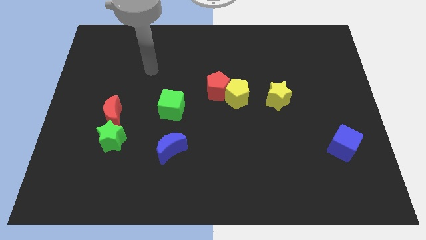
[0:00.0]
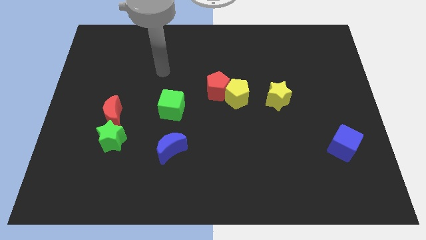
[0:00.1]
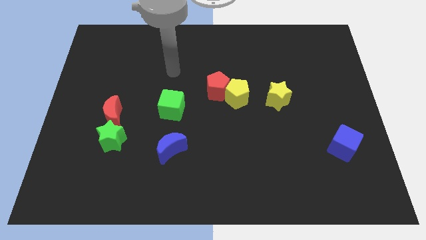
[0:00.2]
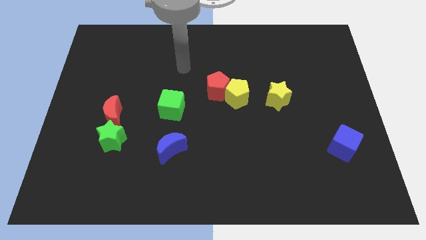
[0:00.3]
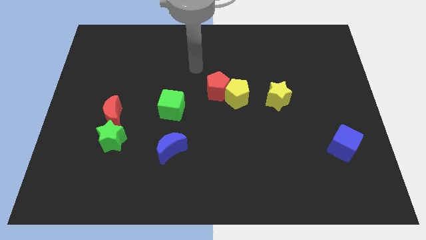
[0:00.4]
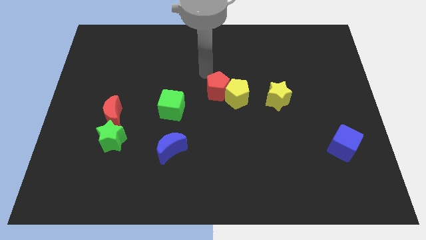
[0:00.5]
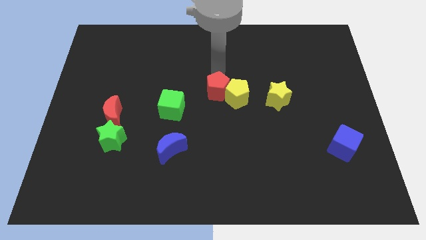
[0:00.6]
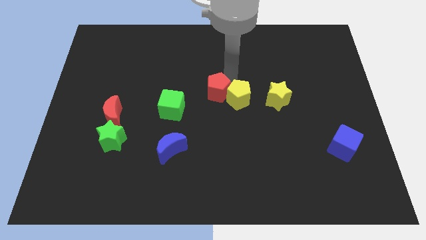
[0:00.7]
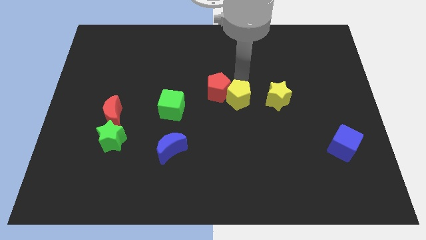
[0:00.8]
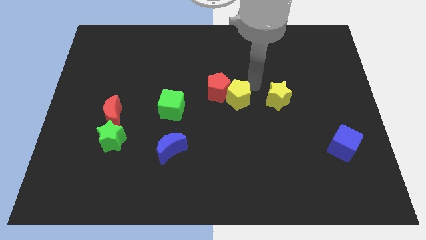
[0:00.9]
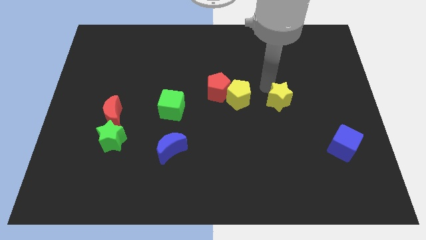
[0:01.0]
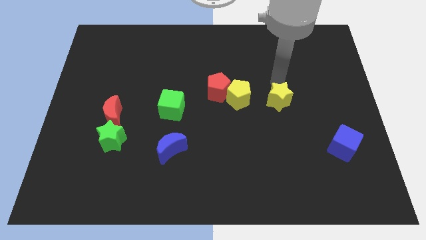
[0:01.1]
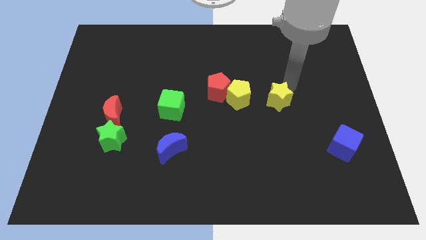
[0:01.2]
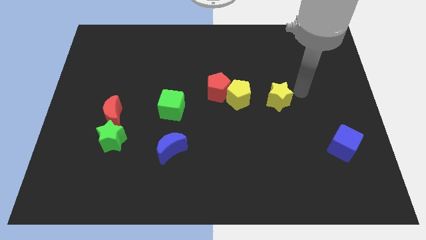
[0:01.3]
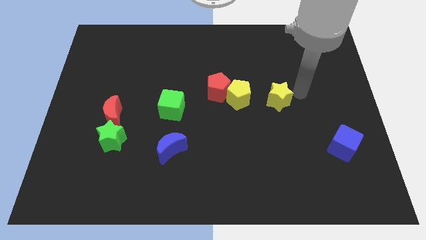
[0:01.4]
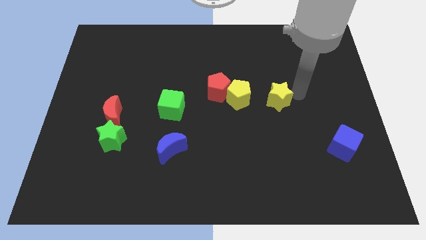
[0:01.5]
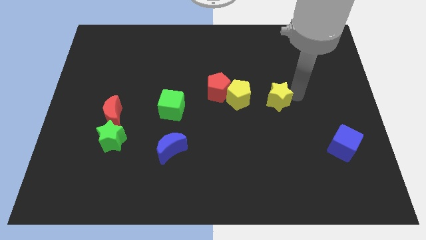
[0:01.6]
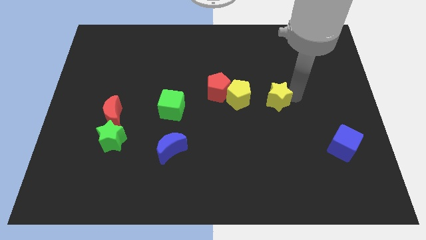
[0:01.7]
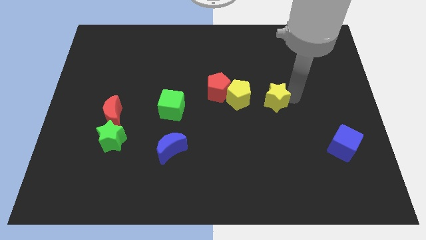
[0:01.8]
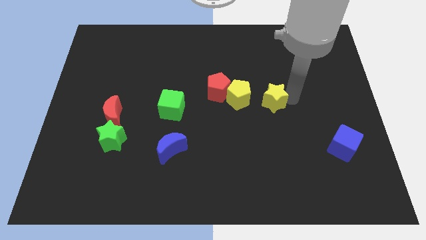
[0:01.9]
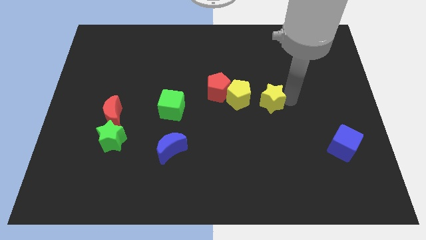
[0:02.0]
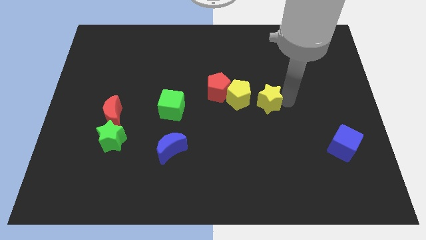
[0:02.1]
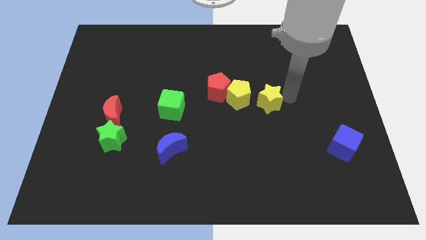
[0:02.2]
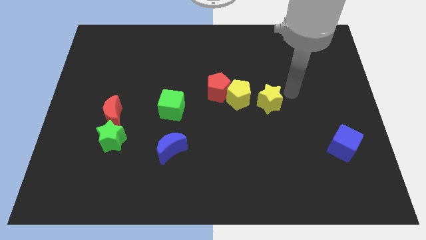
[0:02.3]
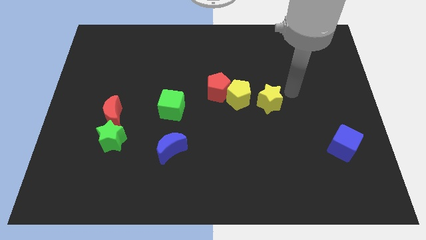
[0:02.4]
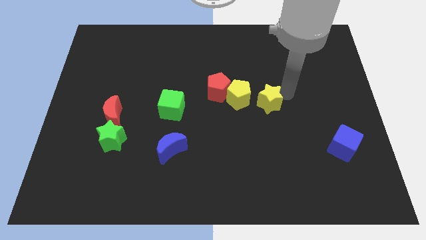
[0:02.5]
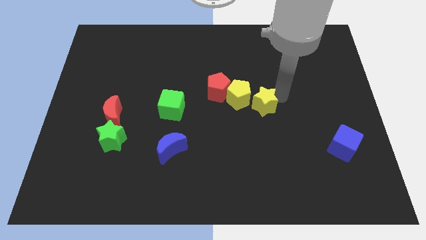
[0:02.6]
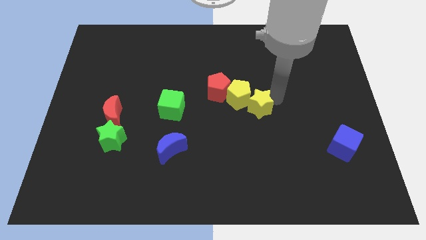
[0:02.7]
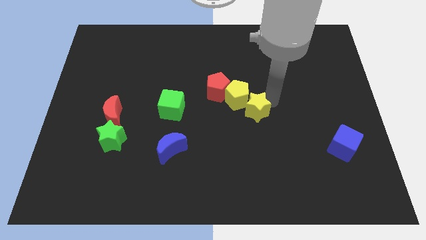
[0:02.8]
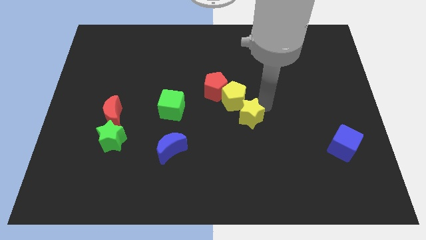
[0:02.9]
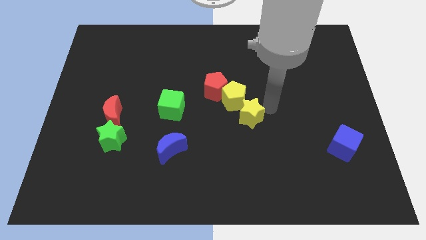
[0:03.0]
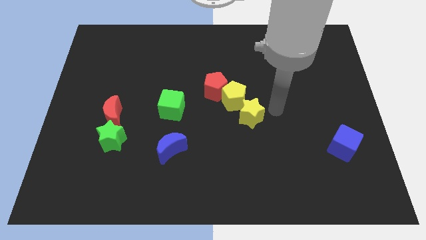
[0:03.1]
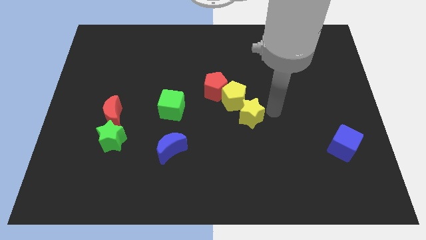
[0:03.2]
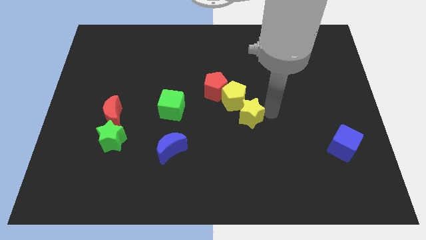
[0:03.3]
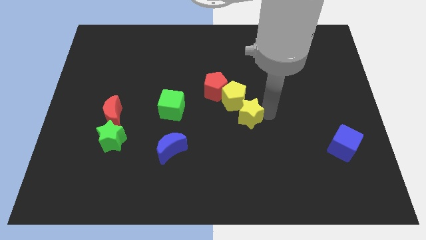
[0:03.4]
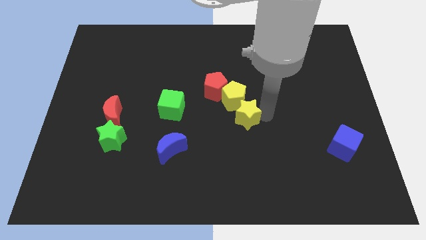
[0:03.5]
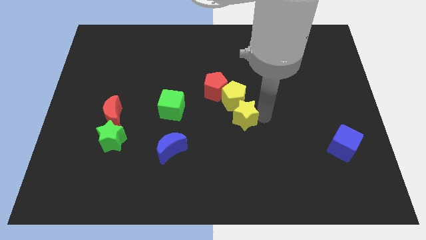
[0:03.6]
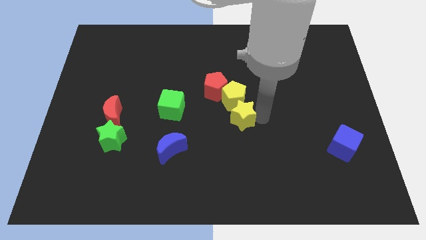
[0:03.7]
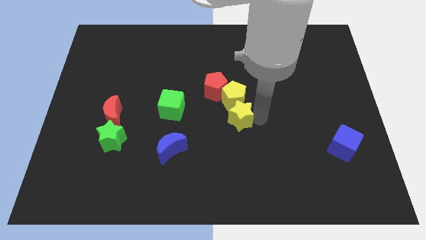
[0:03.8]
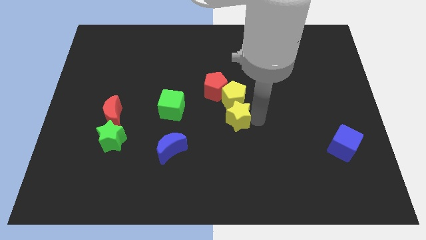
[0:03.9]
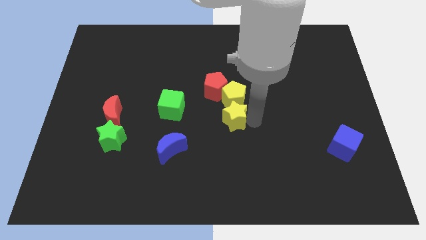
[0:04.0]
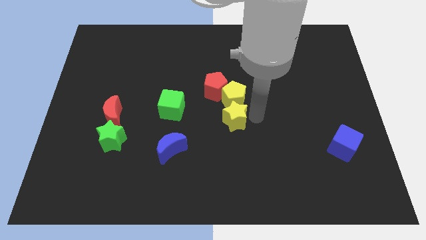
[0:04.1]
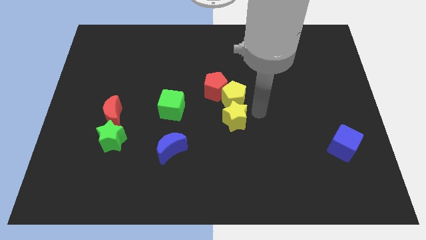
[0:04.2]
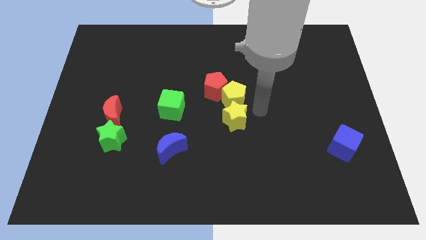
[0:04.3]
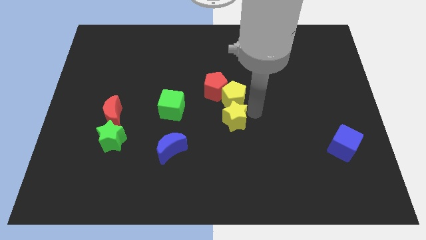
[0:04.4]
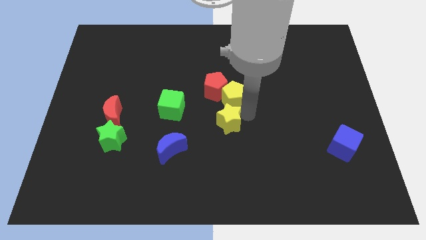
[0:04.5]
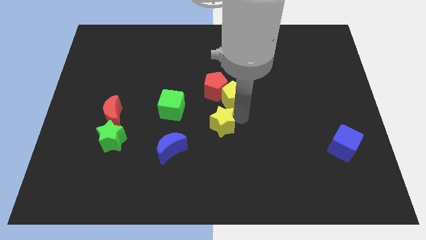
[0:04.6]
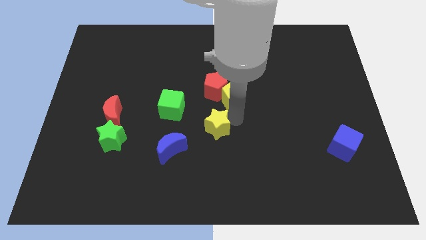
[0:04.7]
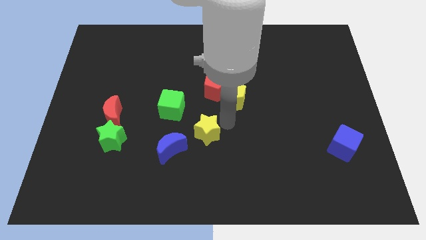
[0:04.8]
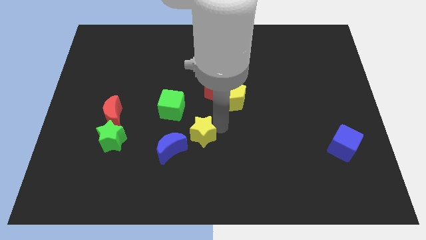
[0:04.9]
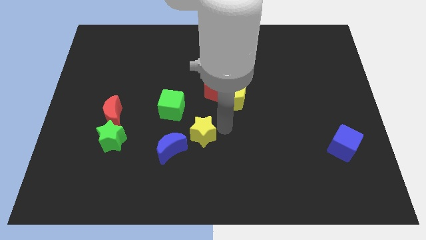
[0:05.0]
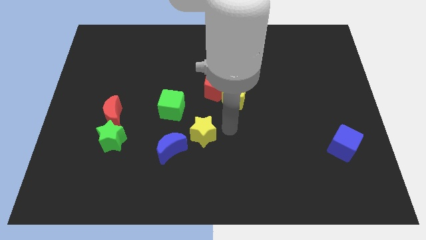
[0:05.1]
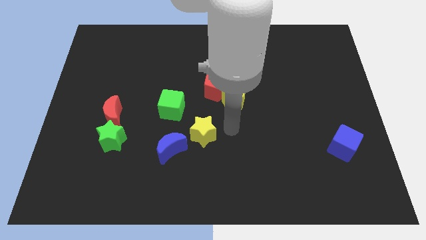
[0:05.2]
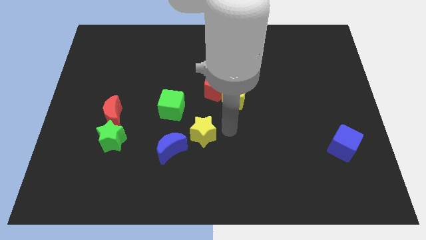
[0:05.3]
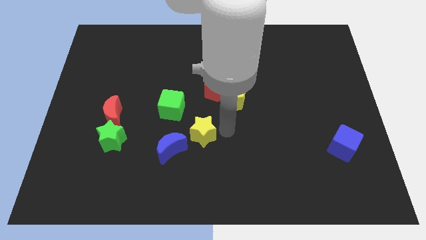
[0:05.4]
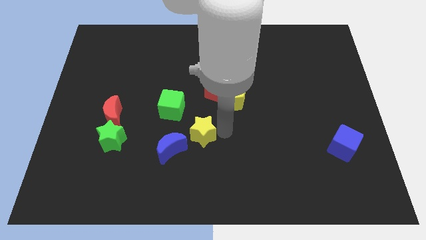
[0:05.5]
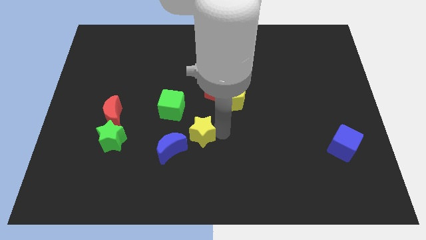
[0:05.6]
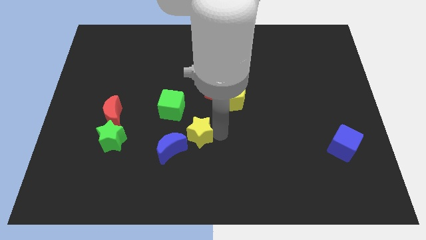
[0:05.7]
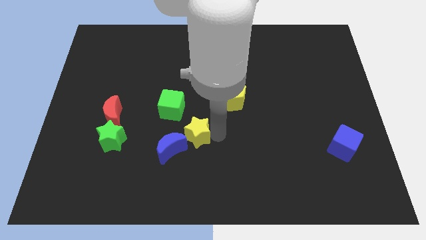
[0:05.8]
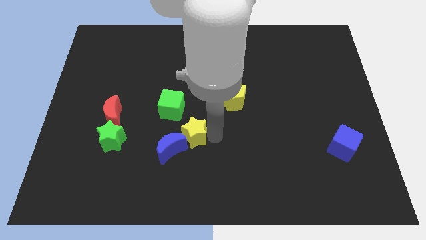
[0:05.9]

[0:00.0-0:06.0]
slide the yellow star to the blue moon

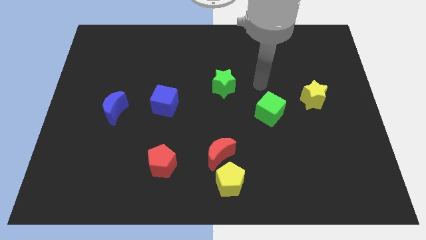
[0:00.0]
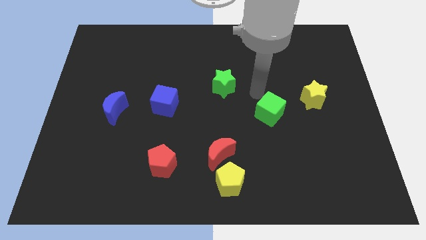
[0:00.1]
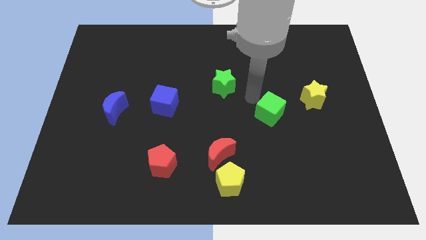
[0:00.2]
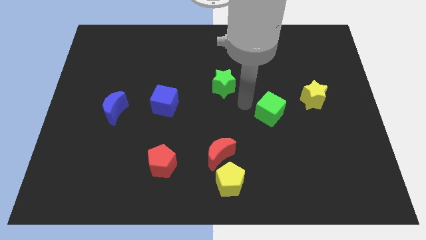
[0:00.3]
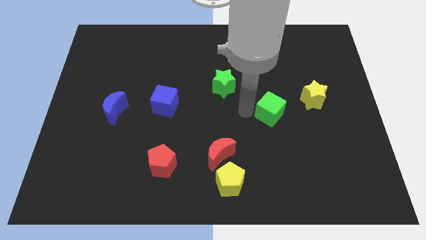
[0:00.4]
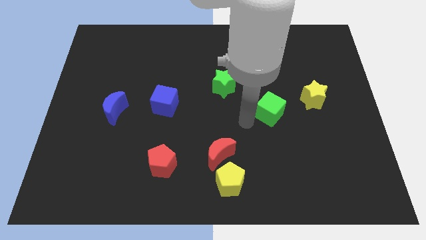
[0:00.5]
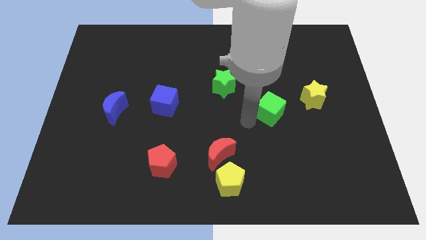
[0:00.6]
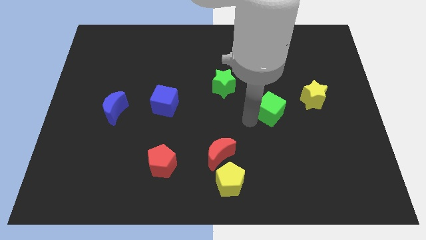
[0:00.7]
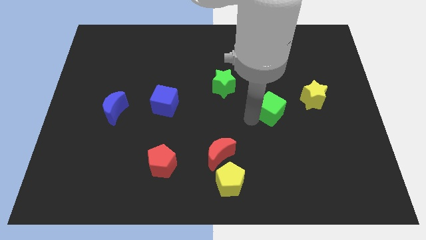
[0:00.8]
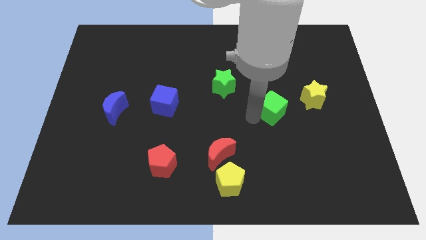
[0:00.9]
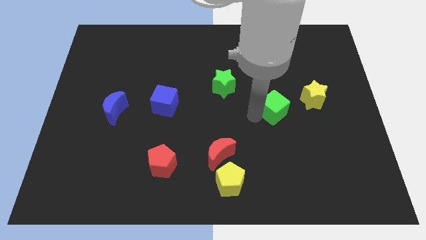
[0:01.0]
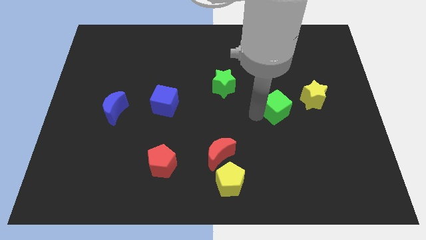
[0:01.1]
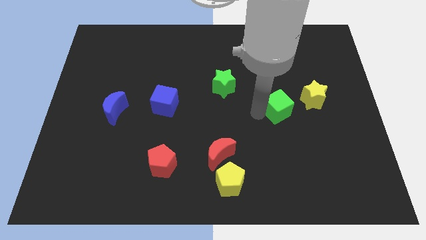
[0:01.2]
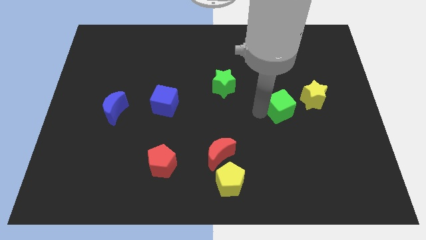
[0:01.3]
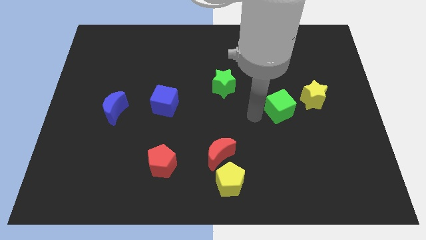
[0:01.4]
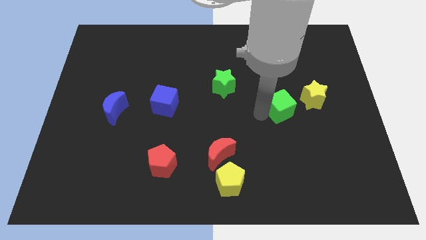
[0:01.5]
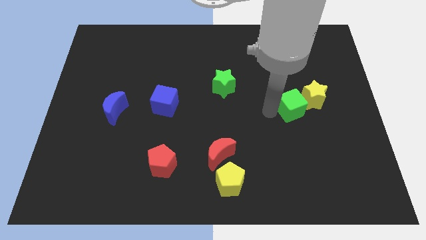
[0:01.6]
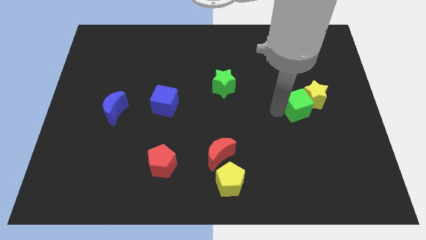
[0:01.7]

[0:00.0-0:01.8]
slide the green cube close to the yellow star
